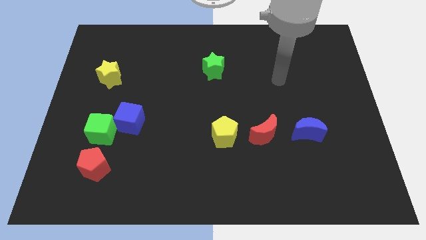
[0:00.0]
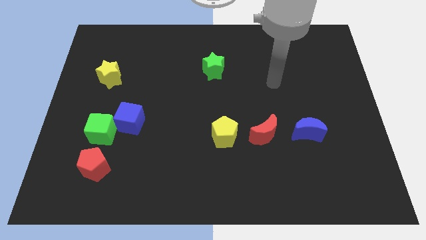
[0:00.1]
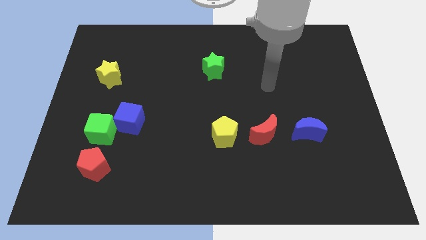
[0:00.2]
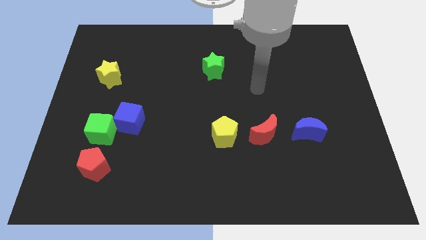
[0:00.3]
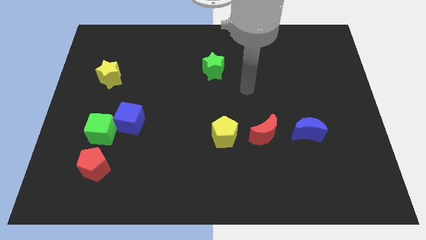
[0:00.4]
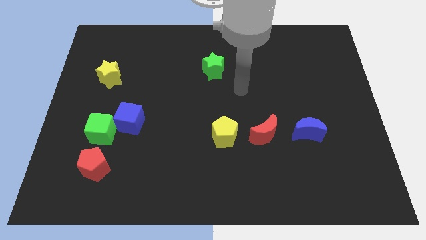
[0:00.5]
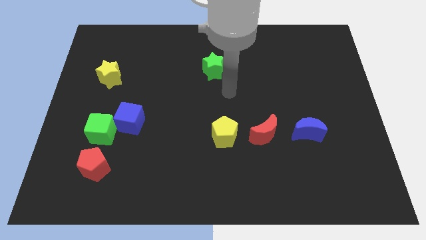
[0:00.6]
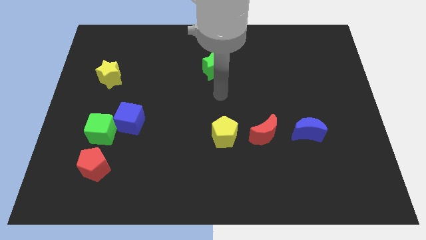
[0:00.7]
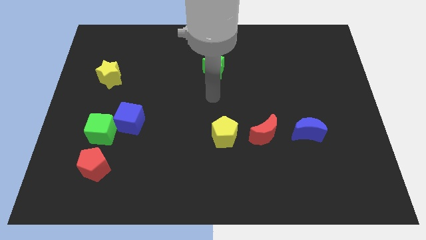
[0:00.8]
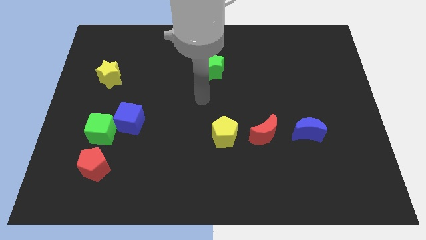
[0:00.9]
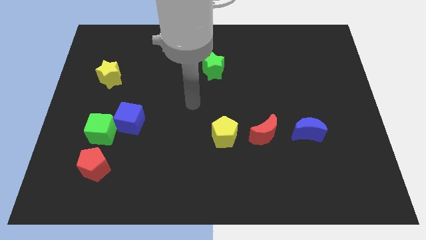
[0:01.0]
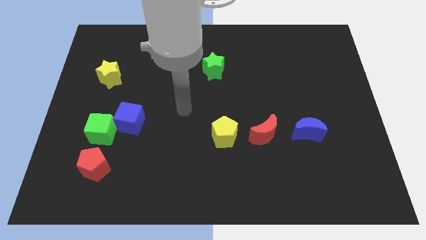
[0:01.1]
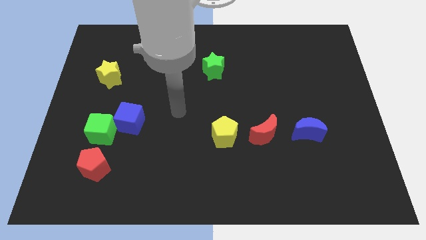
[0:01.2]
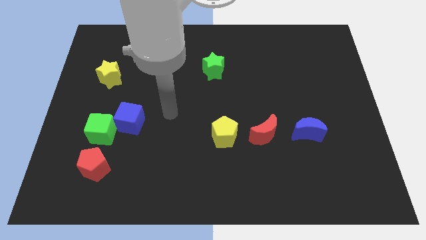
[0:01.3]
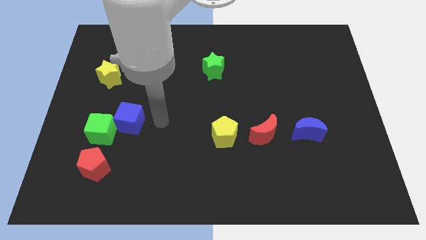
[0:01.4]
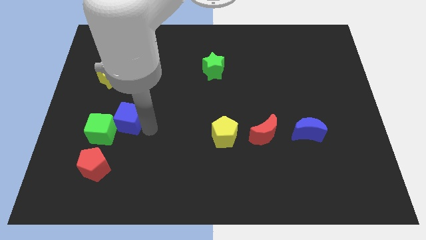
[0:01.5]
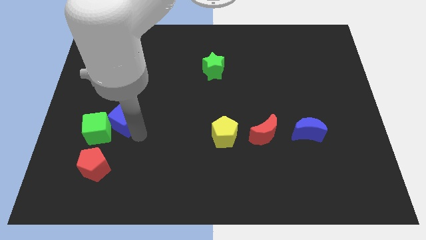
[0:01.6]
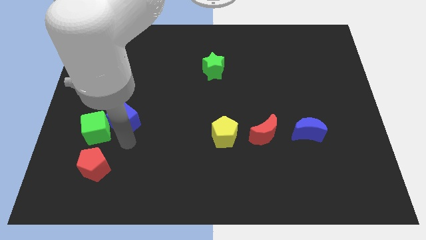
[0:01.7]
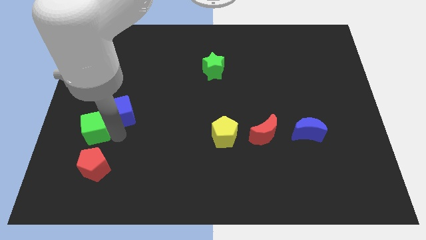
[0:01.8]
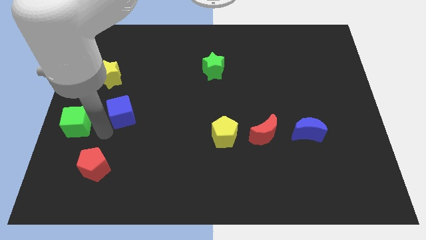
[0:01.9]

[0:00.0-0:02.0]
separate the blue cube from the green cube

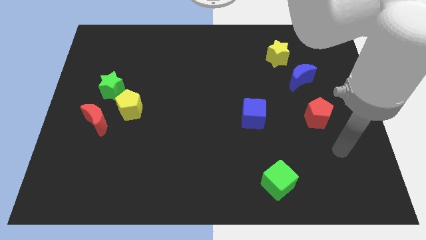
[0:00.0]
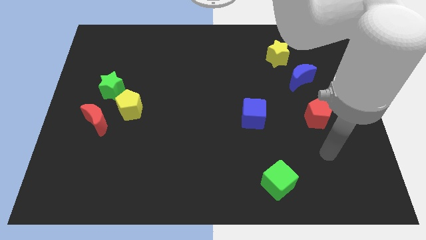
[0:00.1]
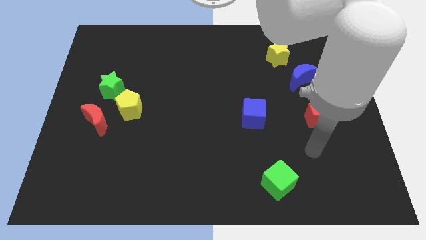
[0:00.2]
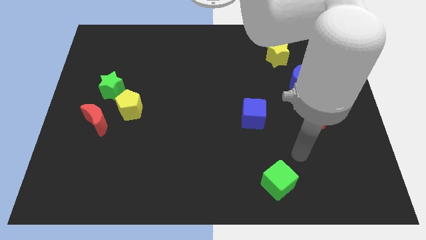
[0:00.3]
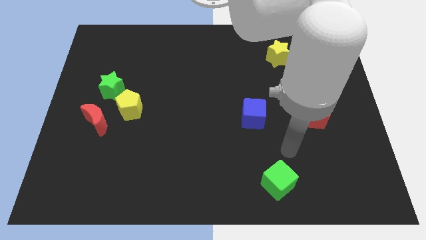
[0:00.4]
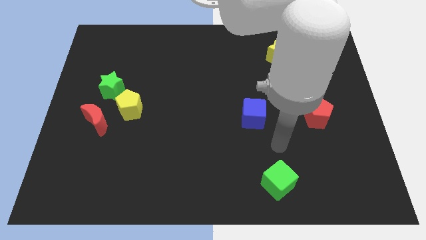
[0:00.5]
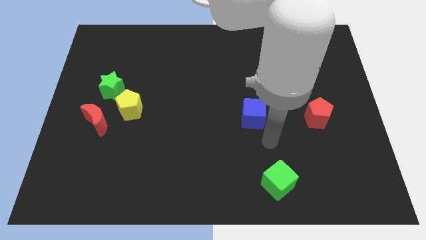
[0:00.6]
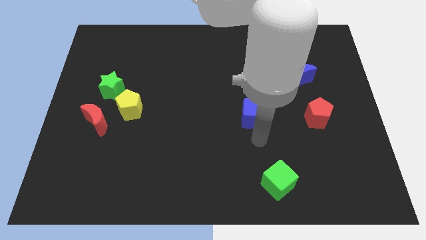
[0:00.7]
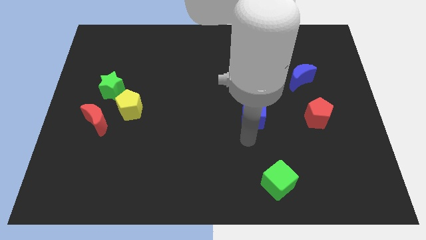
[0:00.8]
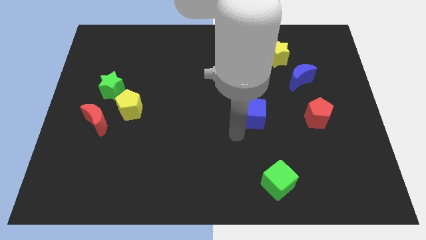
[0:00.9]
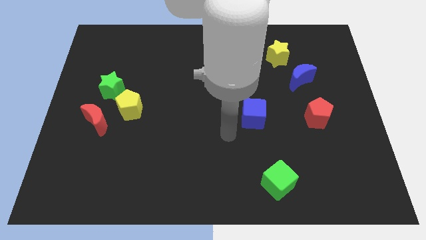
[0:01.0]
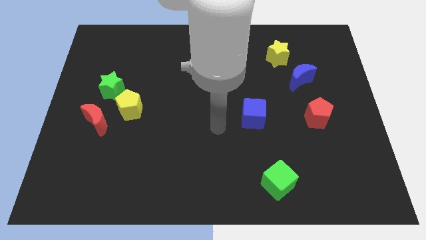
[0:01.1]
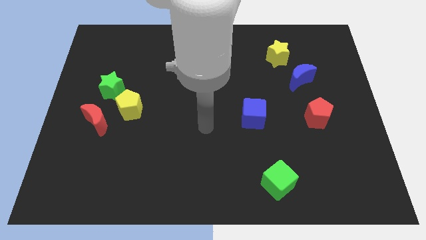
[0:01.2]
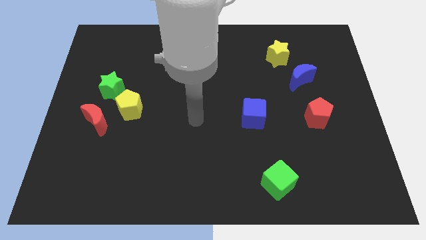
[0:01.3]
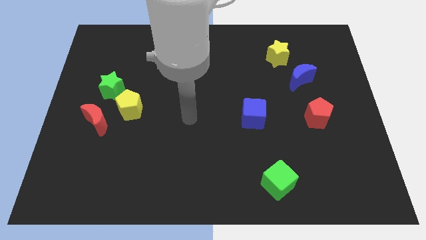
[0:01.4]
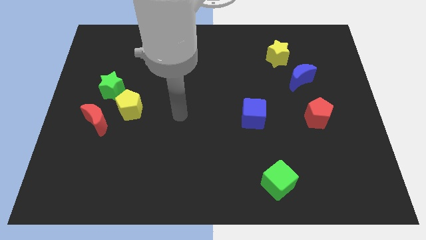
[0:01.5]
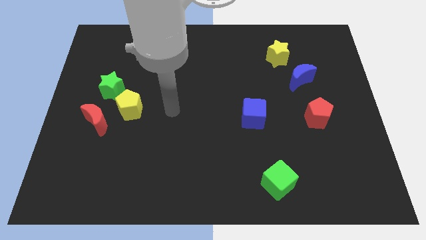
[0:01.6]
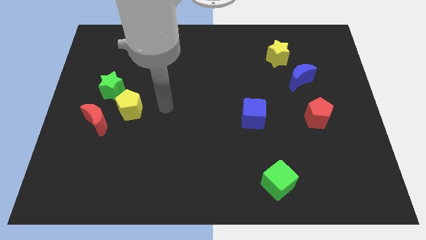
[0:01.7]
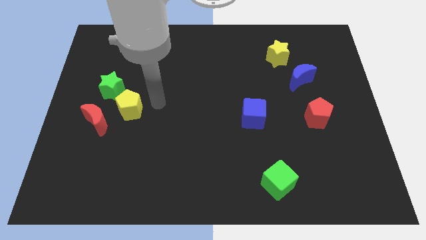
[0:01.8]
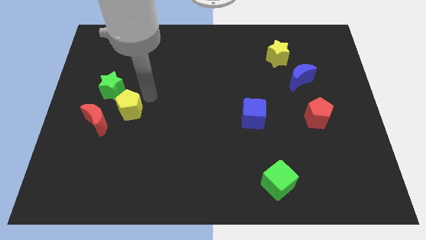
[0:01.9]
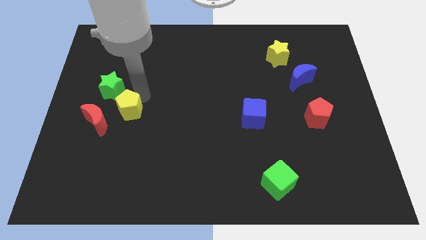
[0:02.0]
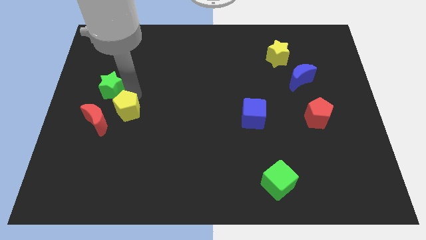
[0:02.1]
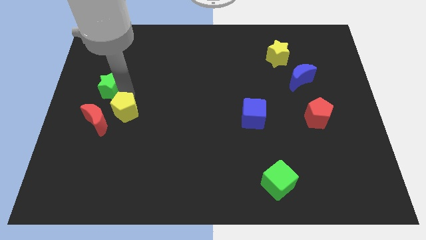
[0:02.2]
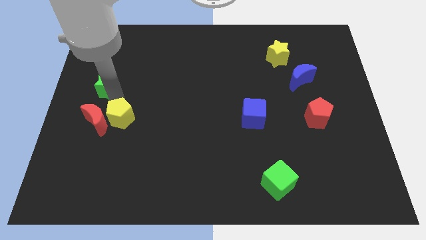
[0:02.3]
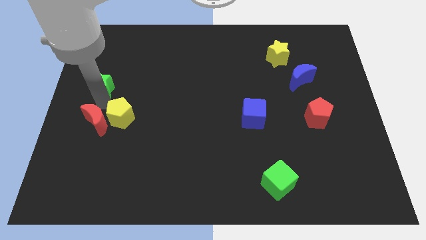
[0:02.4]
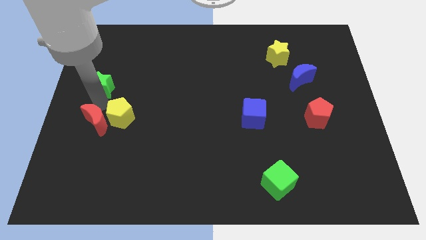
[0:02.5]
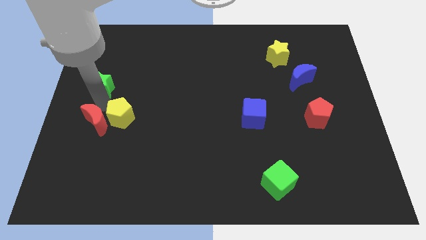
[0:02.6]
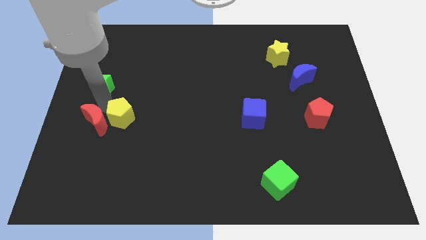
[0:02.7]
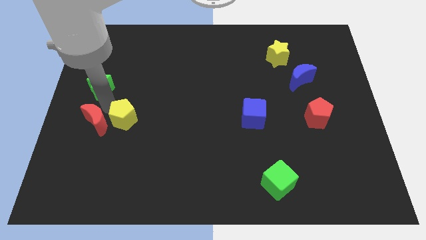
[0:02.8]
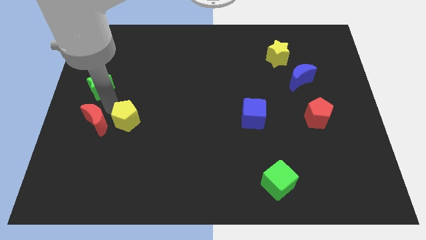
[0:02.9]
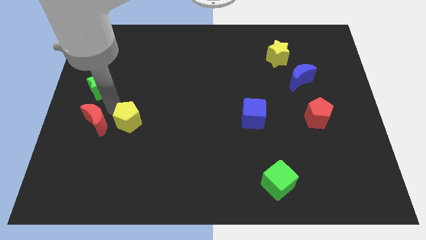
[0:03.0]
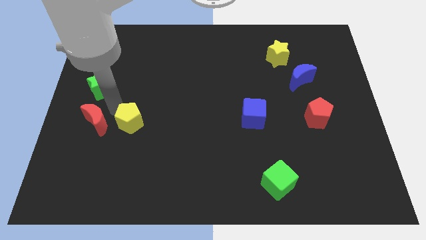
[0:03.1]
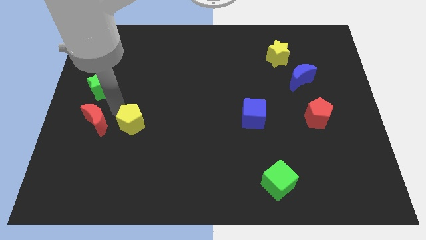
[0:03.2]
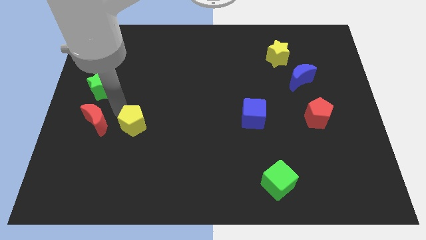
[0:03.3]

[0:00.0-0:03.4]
pull the yellow pentagon apart from the red moon and green star

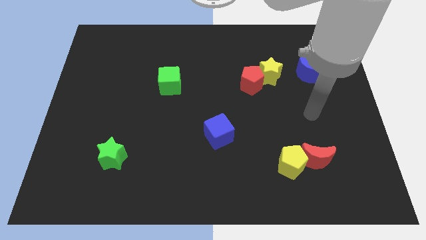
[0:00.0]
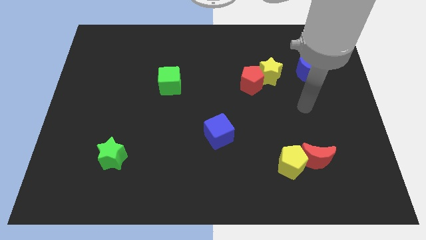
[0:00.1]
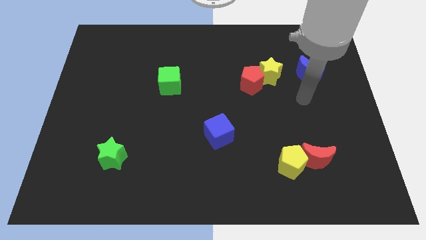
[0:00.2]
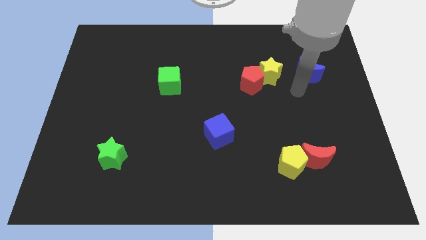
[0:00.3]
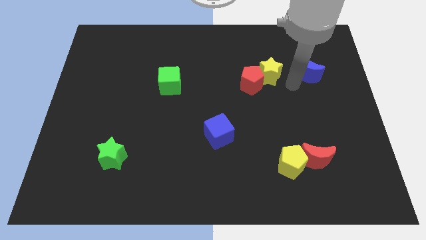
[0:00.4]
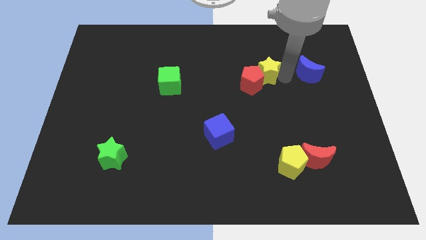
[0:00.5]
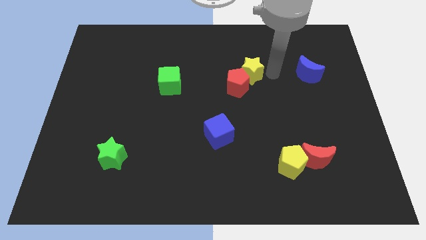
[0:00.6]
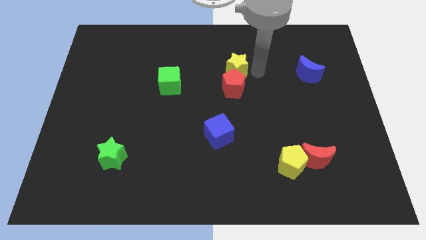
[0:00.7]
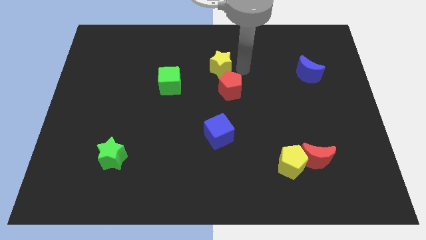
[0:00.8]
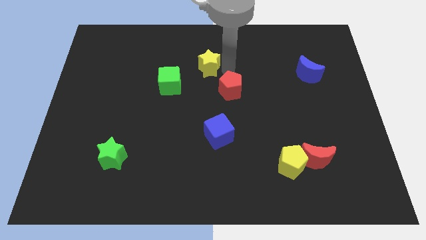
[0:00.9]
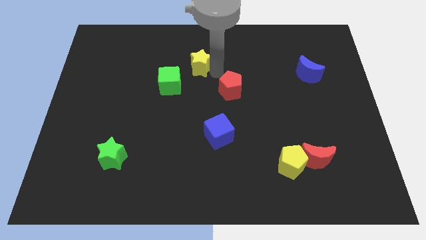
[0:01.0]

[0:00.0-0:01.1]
pull the red pentagon apart from the yellow star

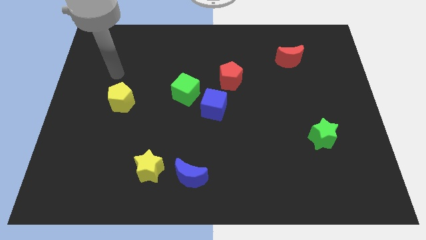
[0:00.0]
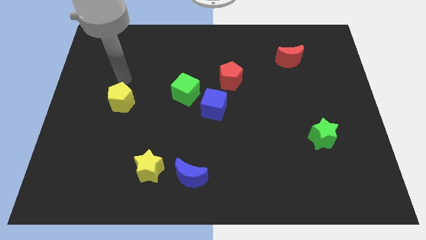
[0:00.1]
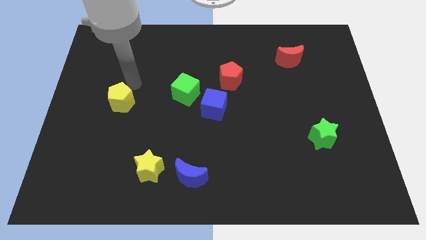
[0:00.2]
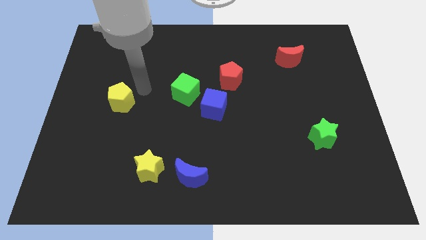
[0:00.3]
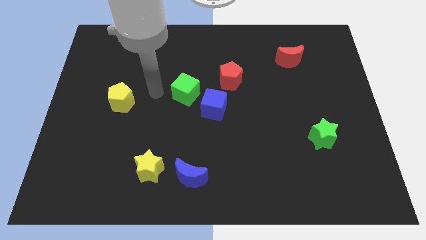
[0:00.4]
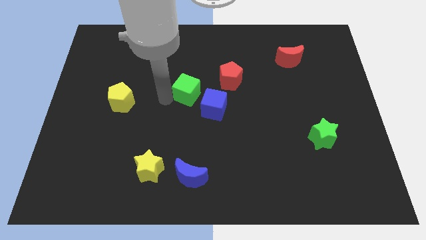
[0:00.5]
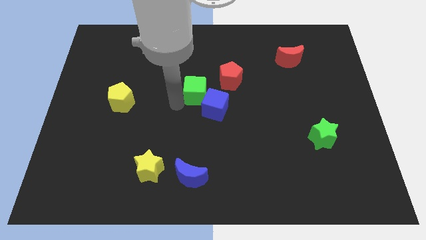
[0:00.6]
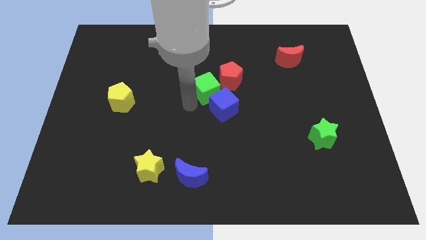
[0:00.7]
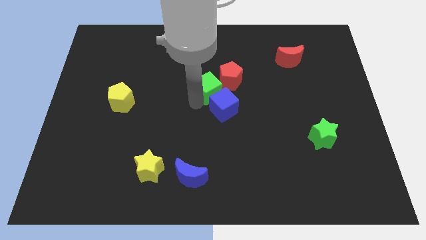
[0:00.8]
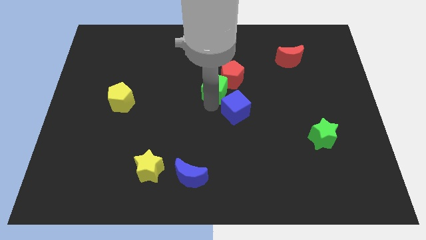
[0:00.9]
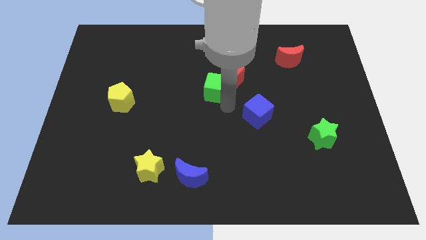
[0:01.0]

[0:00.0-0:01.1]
pull the green cube apart from the blue cube

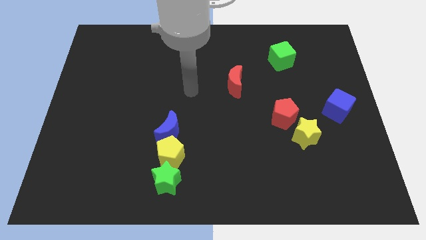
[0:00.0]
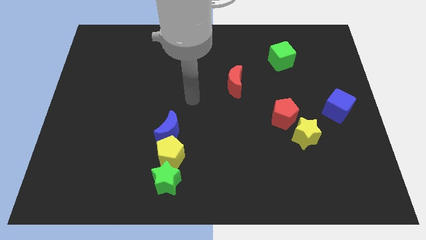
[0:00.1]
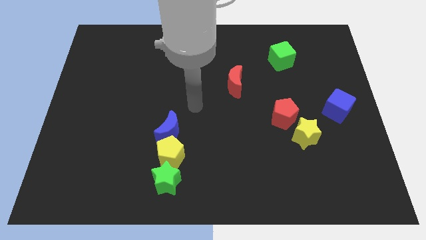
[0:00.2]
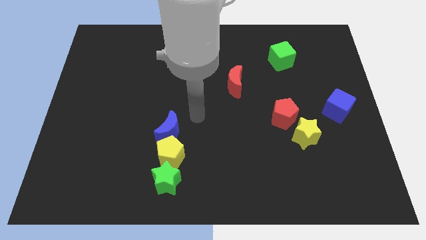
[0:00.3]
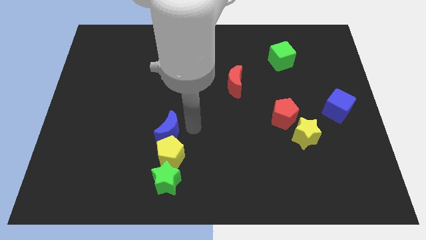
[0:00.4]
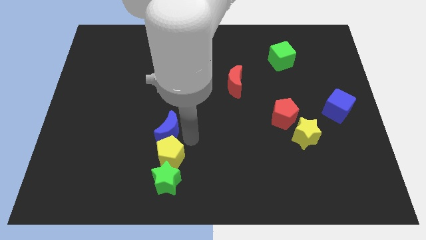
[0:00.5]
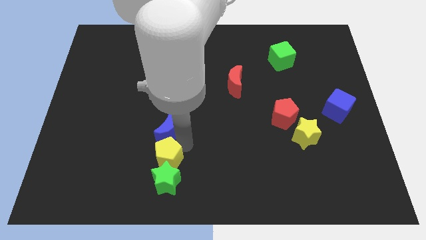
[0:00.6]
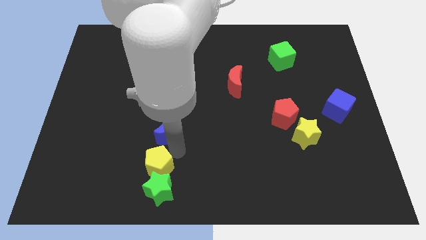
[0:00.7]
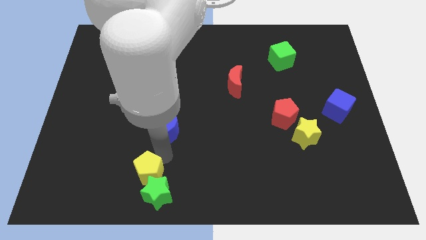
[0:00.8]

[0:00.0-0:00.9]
move the blue moon away from the yellow pentagon

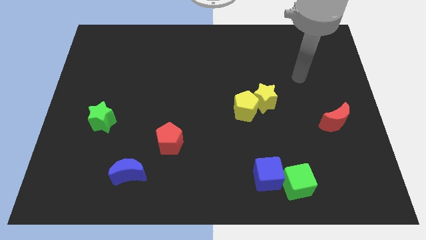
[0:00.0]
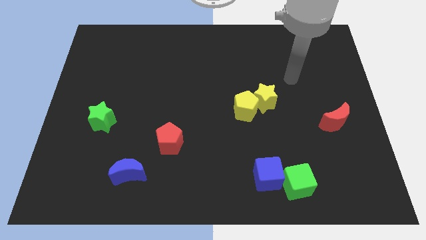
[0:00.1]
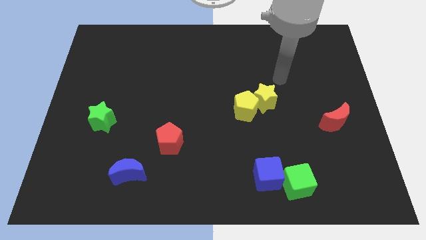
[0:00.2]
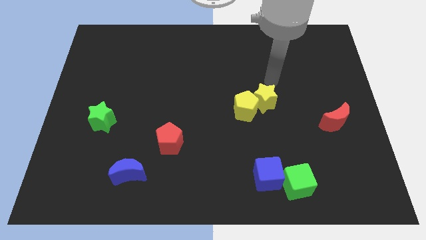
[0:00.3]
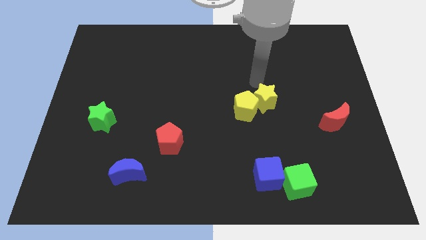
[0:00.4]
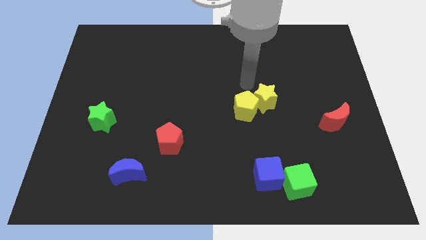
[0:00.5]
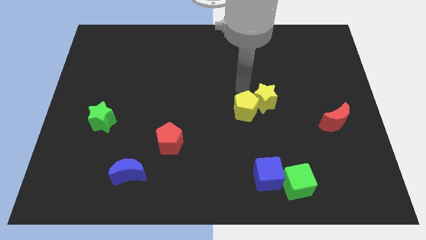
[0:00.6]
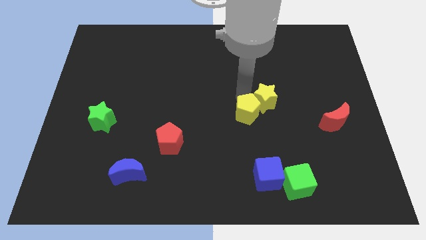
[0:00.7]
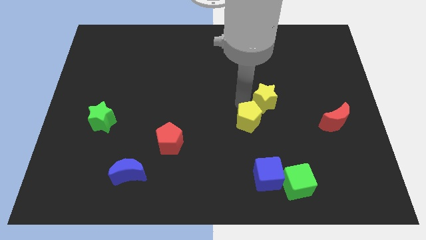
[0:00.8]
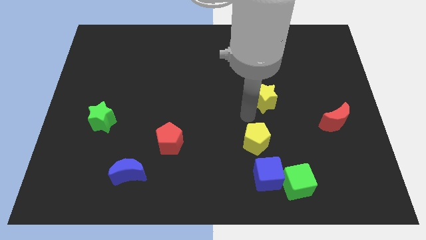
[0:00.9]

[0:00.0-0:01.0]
move the yellow star away from the yellow pentagon

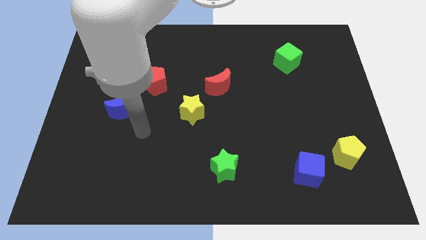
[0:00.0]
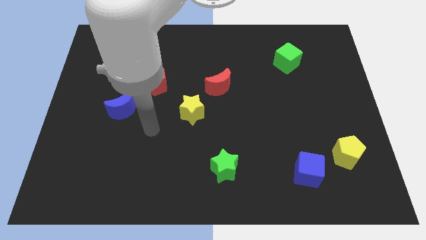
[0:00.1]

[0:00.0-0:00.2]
move the blue cube away from the yellow pentagon
